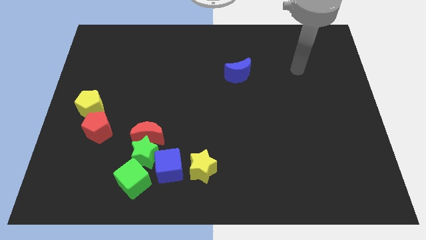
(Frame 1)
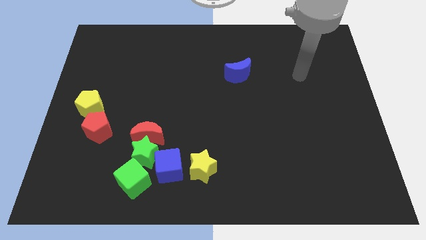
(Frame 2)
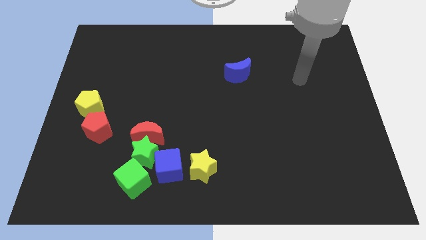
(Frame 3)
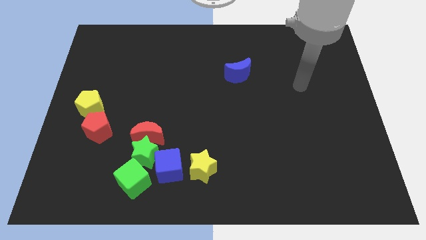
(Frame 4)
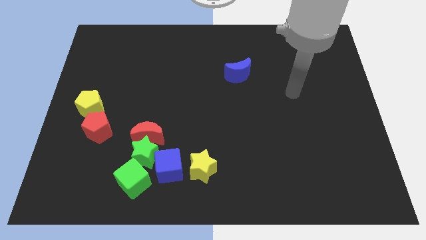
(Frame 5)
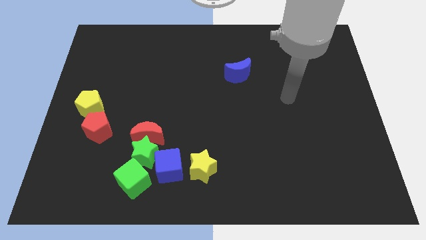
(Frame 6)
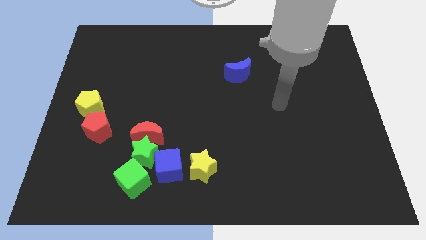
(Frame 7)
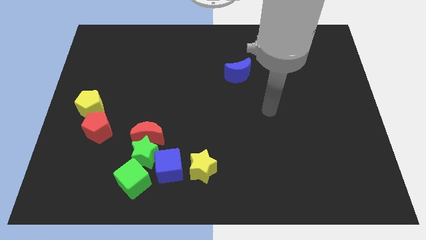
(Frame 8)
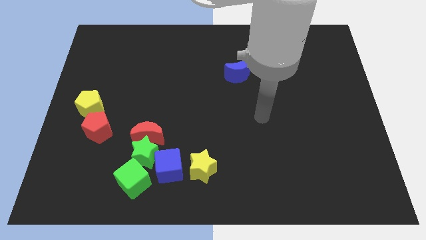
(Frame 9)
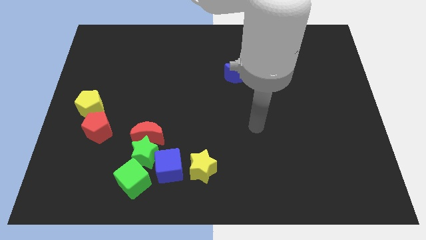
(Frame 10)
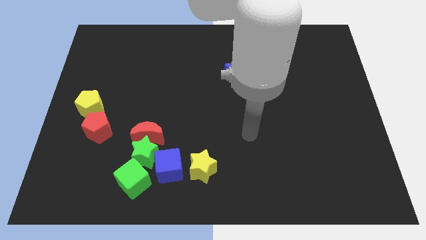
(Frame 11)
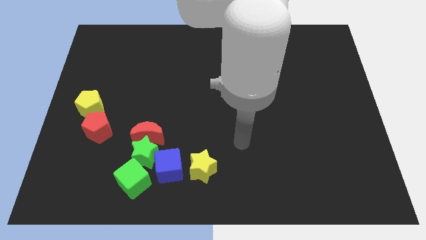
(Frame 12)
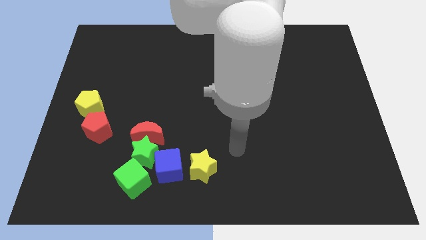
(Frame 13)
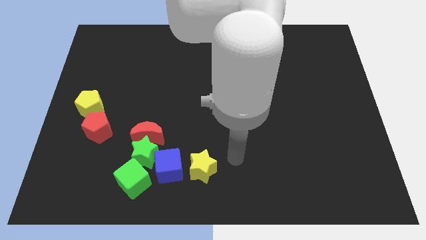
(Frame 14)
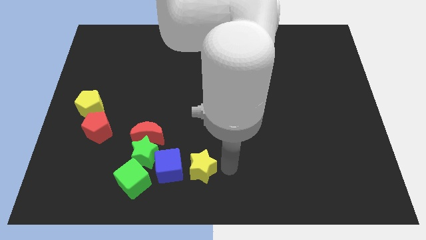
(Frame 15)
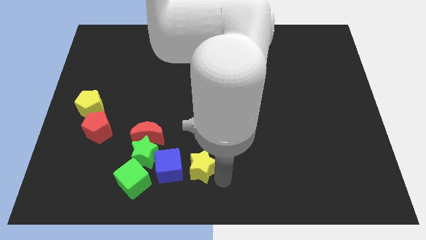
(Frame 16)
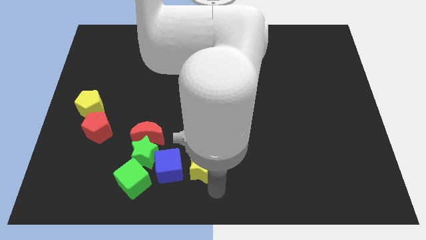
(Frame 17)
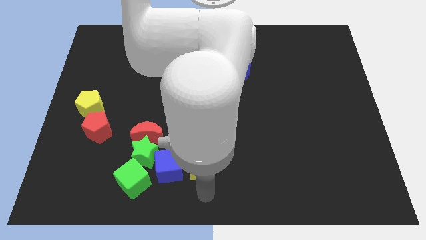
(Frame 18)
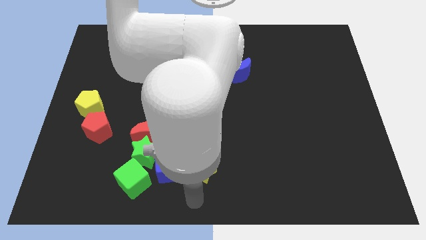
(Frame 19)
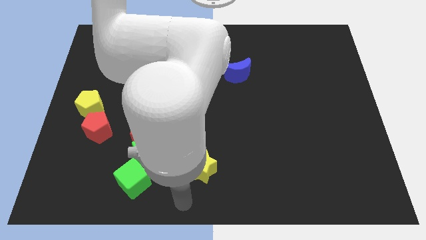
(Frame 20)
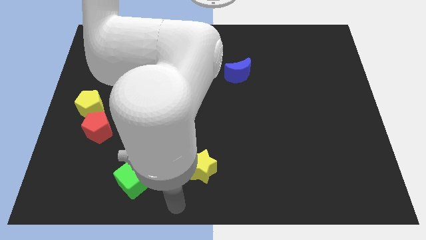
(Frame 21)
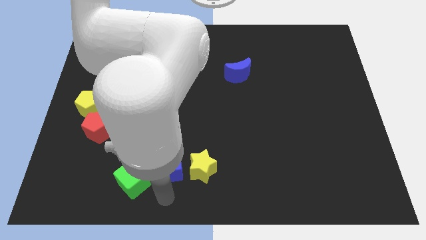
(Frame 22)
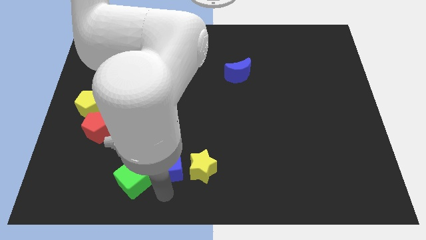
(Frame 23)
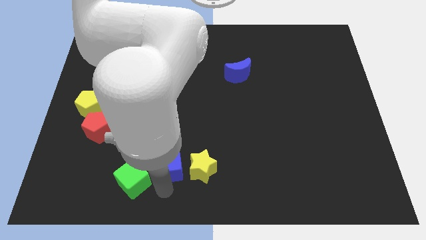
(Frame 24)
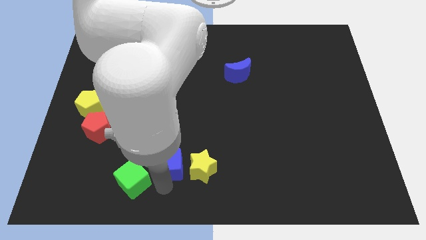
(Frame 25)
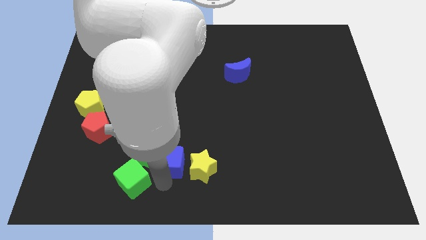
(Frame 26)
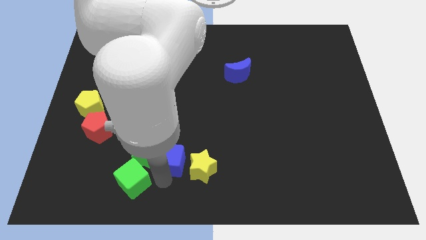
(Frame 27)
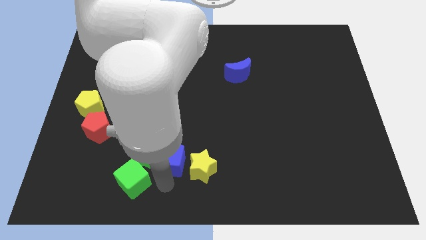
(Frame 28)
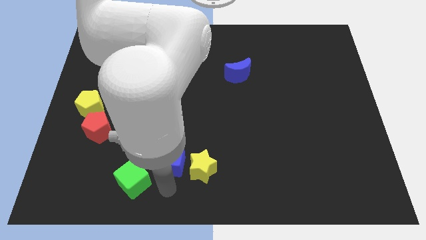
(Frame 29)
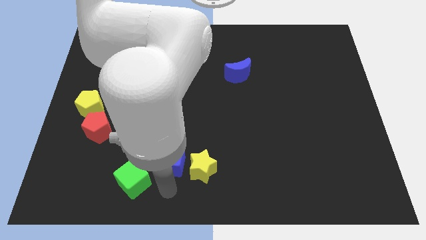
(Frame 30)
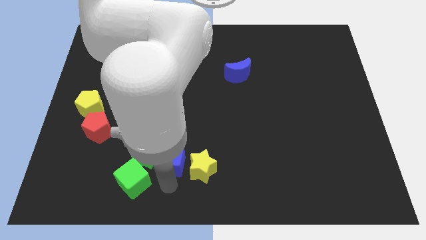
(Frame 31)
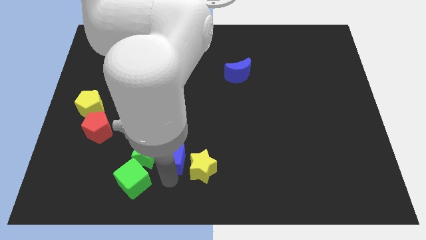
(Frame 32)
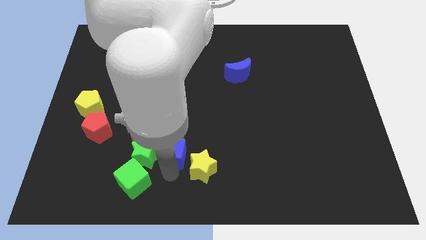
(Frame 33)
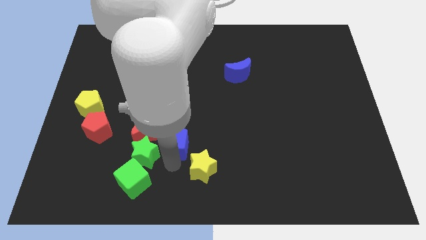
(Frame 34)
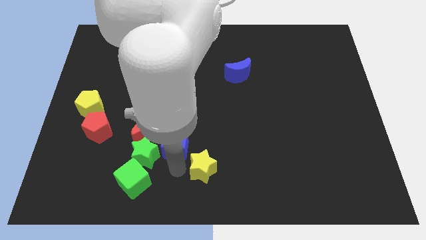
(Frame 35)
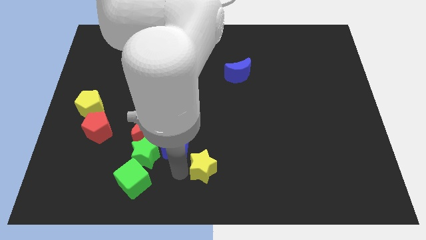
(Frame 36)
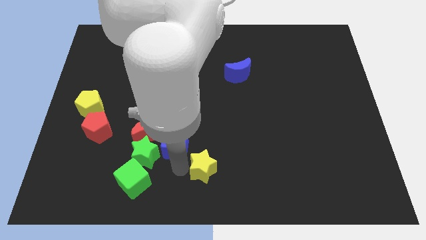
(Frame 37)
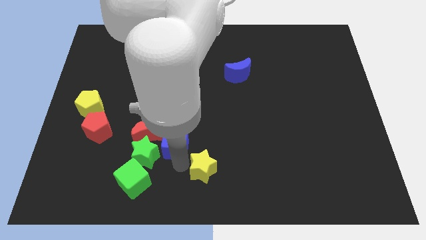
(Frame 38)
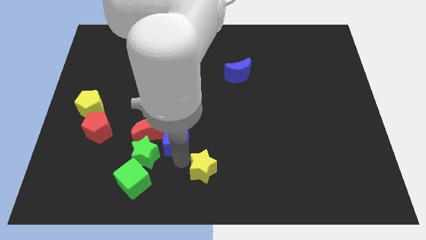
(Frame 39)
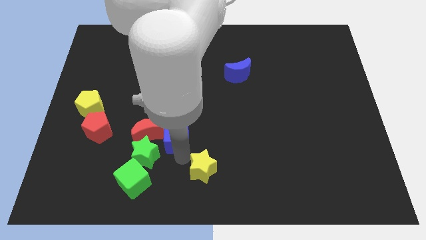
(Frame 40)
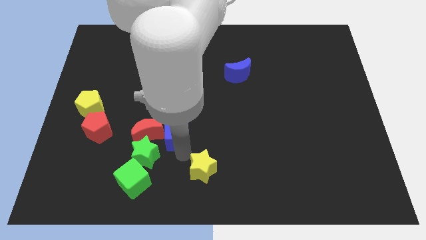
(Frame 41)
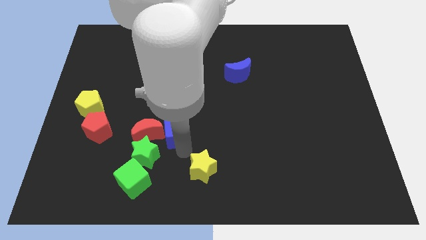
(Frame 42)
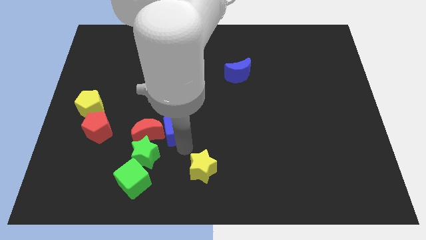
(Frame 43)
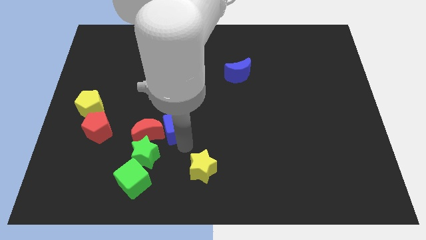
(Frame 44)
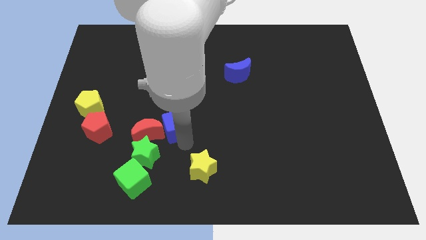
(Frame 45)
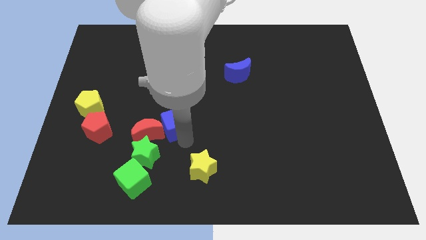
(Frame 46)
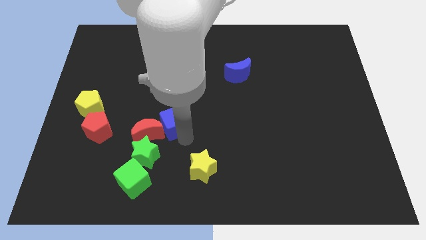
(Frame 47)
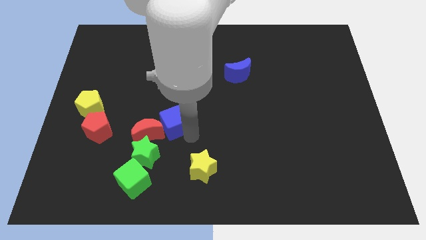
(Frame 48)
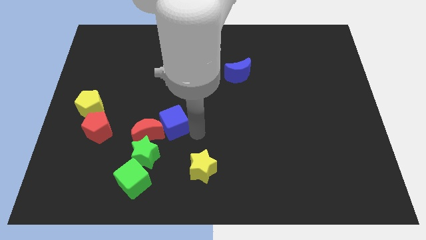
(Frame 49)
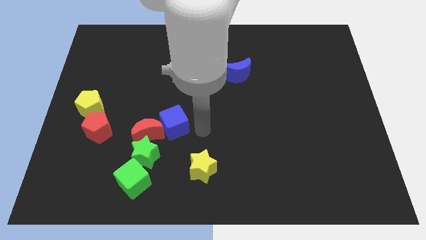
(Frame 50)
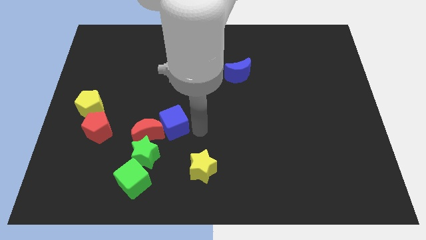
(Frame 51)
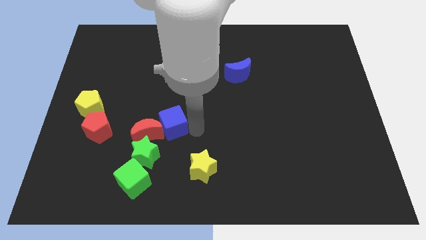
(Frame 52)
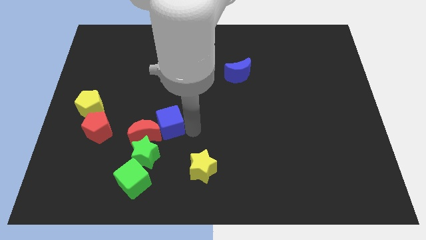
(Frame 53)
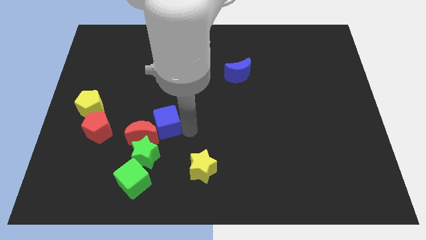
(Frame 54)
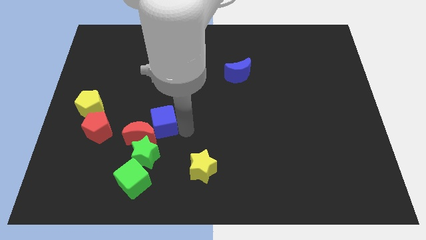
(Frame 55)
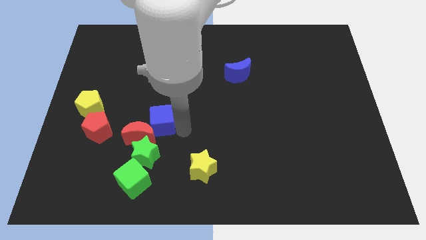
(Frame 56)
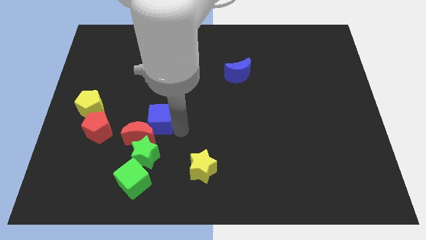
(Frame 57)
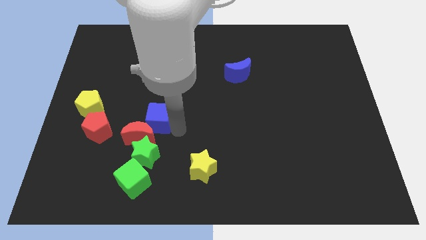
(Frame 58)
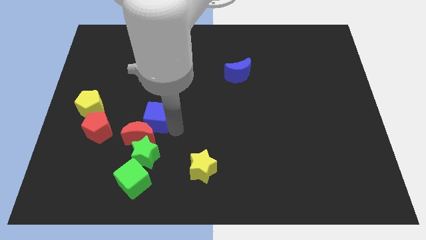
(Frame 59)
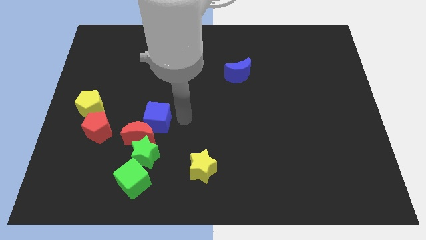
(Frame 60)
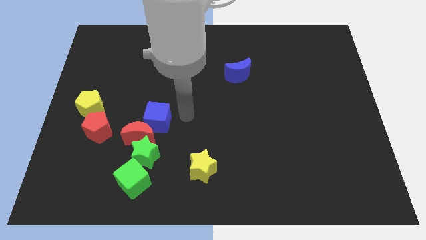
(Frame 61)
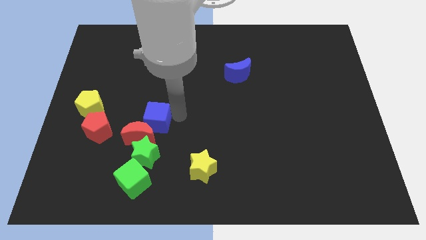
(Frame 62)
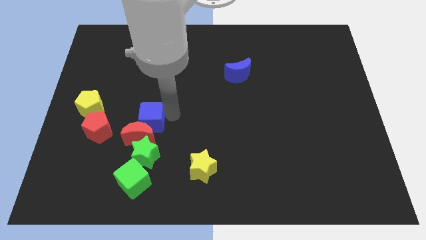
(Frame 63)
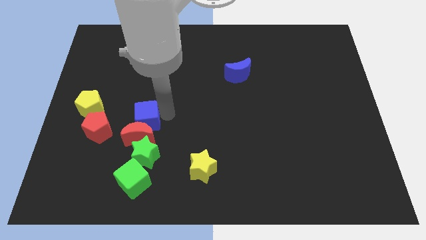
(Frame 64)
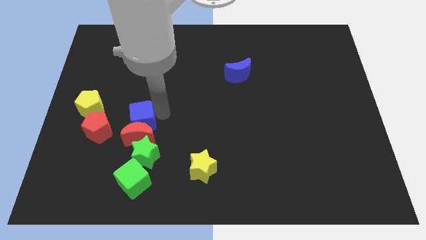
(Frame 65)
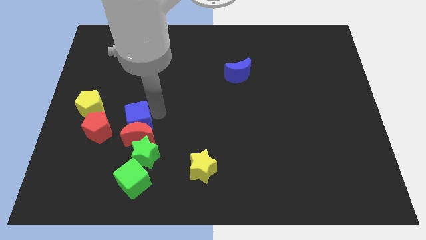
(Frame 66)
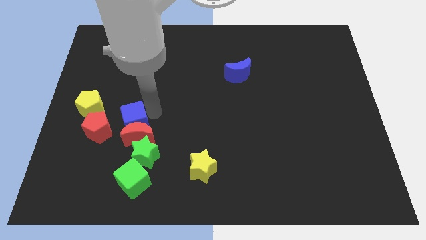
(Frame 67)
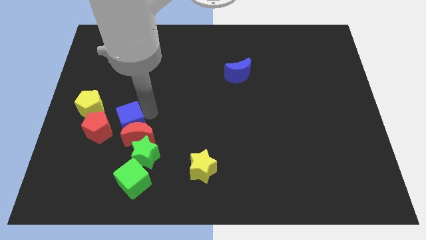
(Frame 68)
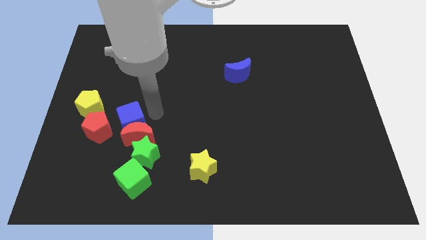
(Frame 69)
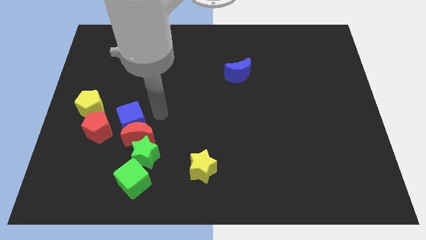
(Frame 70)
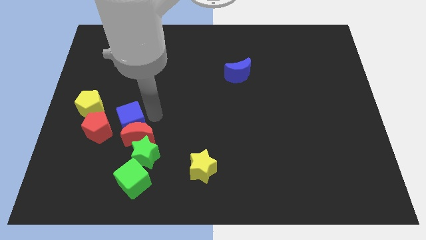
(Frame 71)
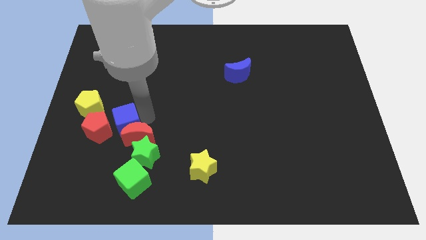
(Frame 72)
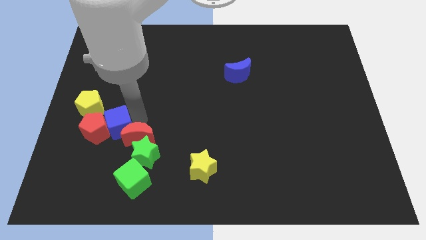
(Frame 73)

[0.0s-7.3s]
put the blue cube close to the red pentagon
